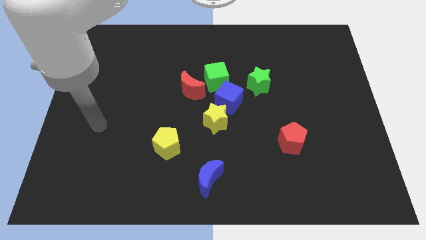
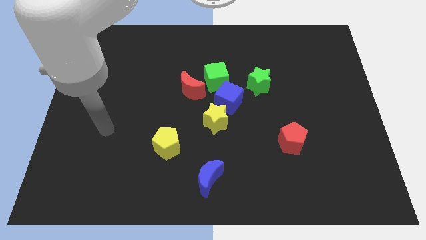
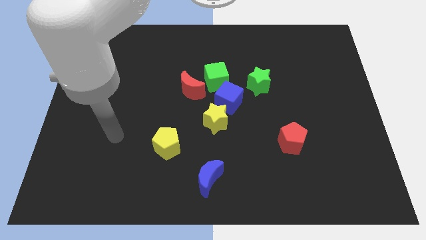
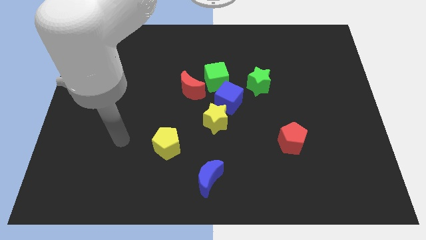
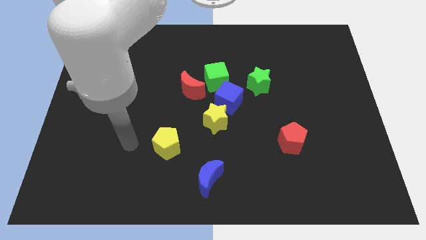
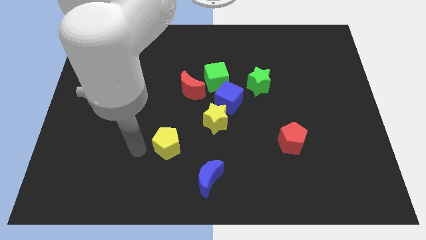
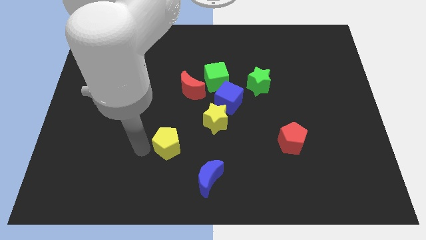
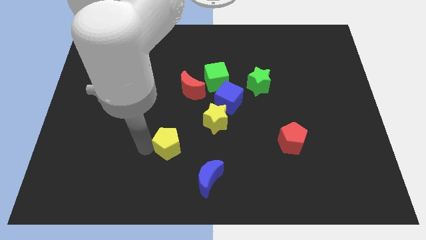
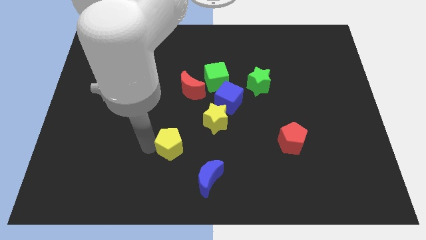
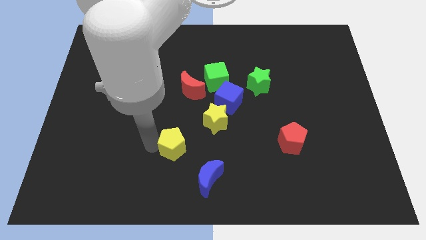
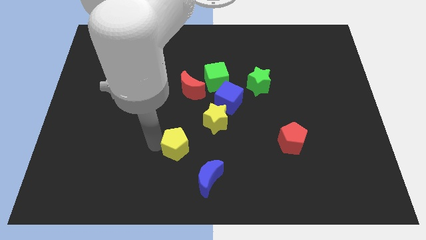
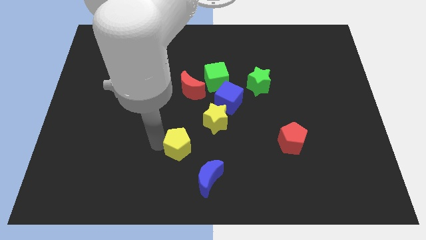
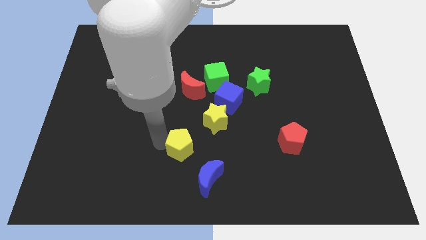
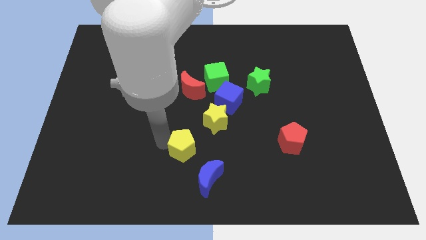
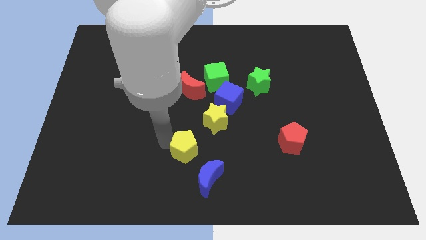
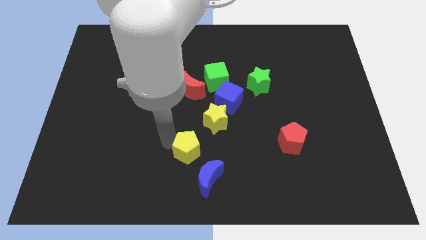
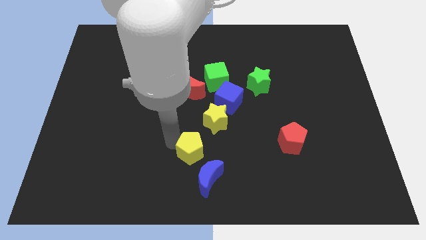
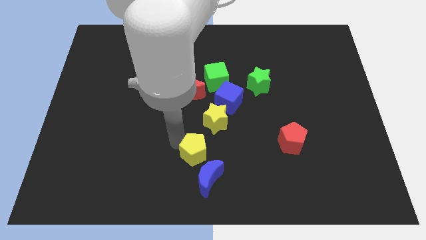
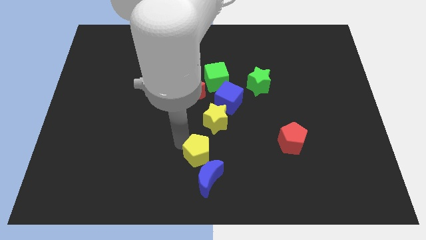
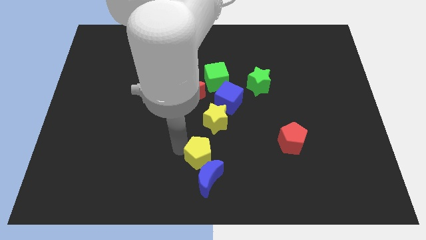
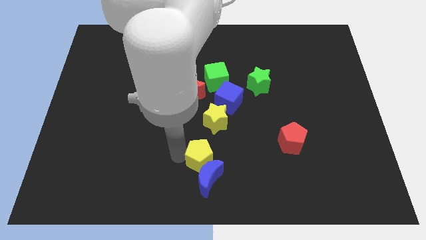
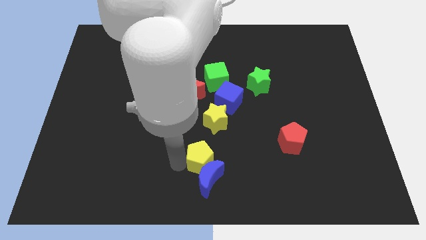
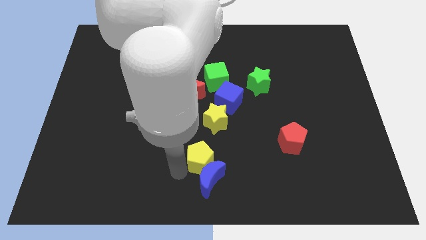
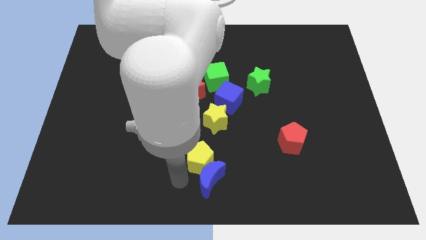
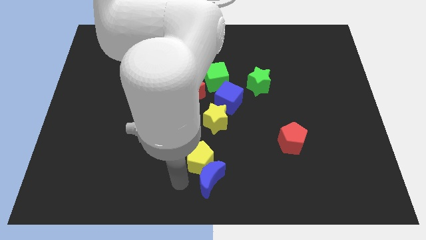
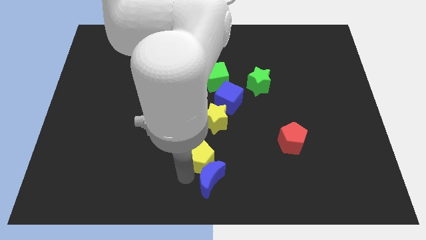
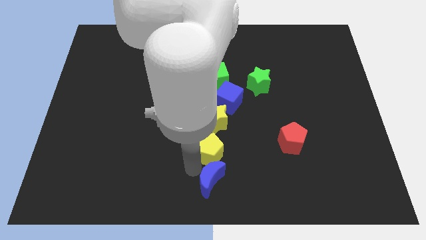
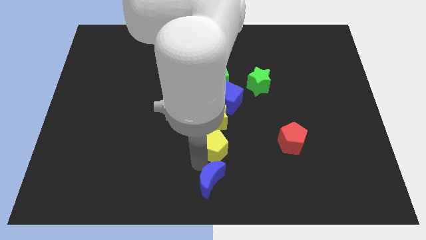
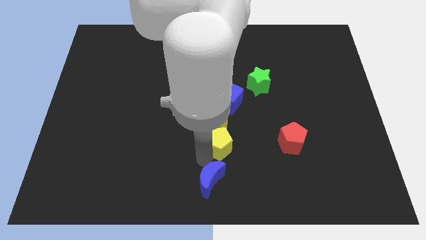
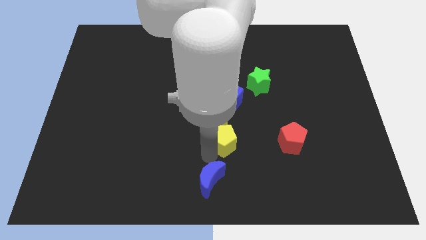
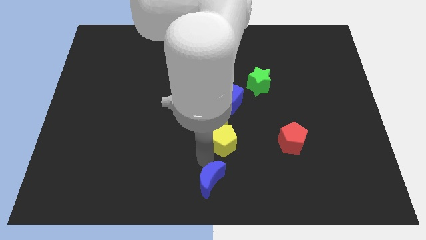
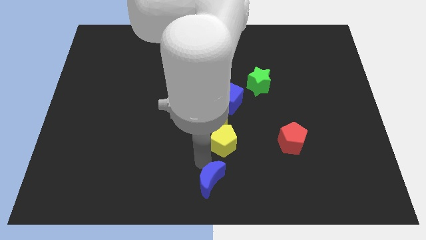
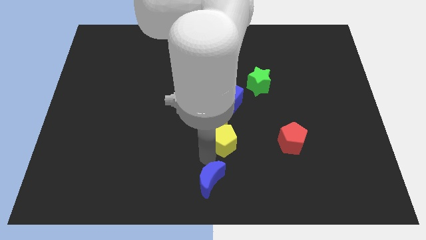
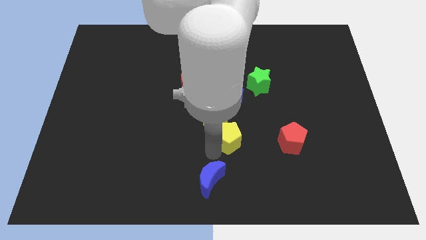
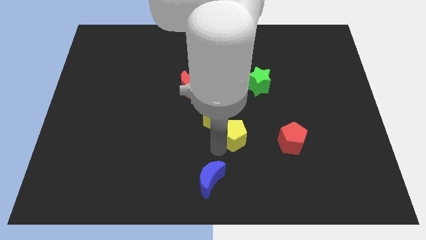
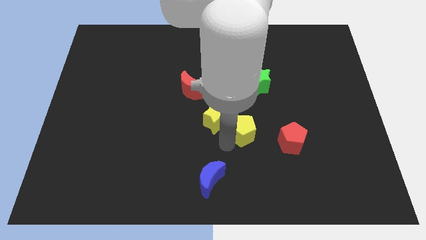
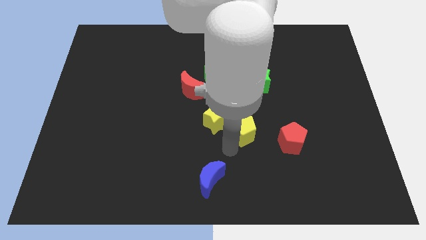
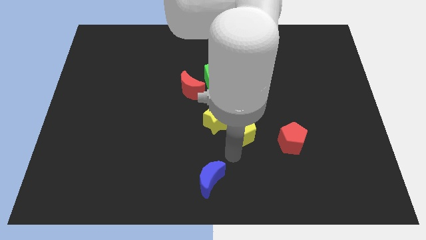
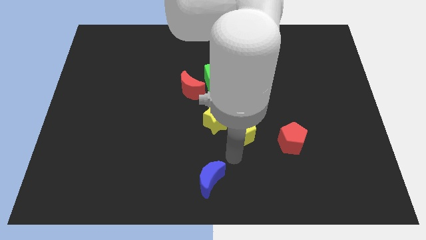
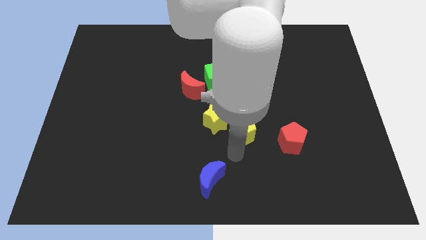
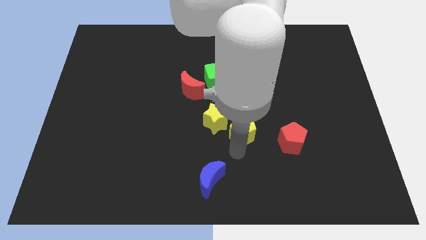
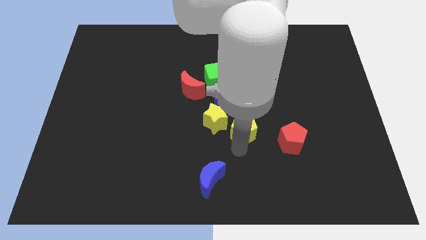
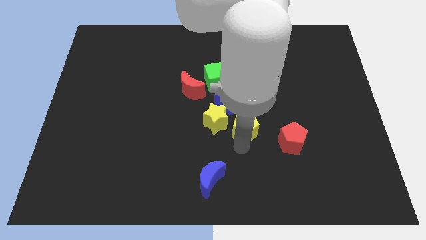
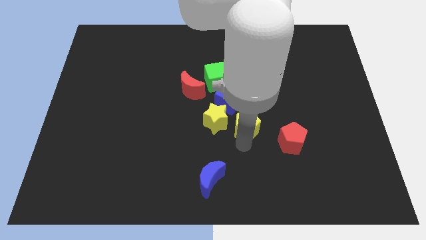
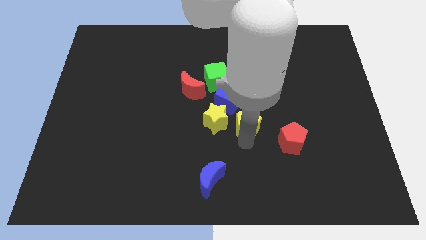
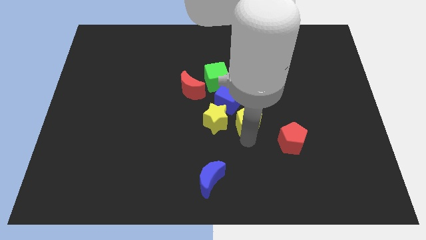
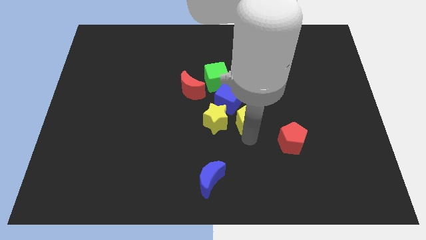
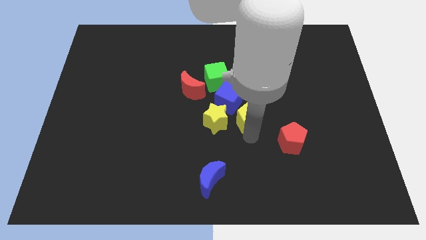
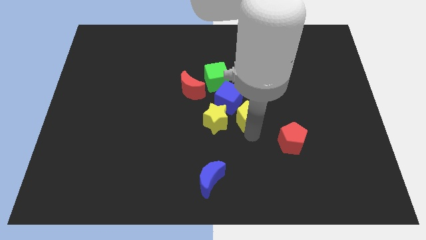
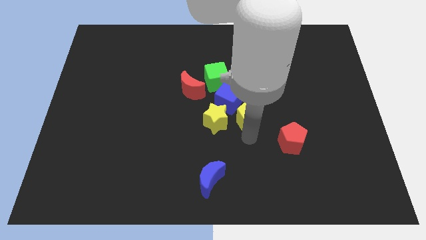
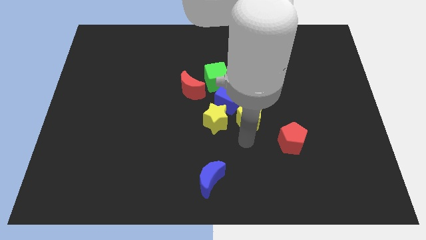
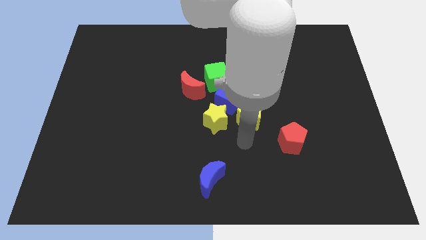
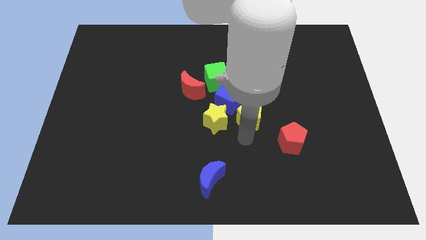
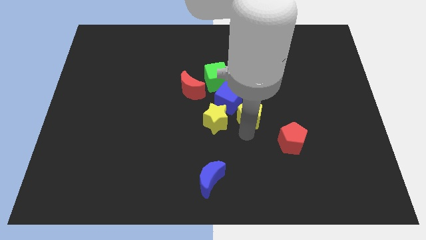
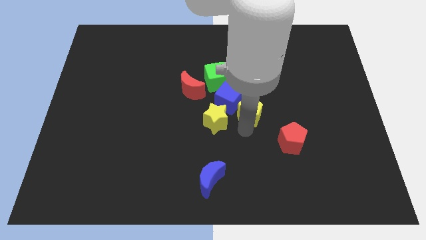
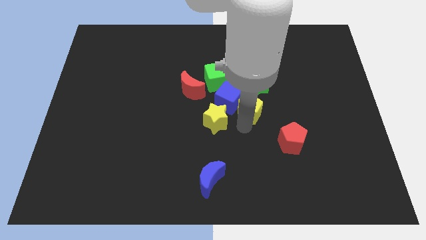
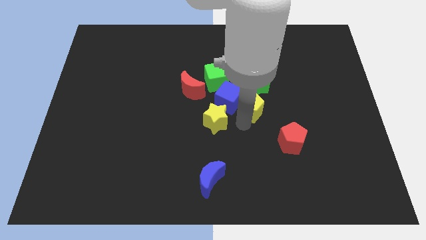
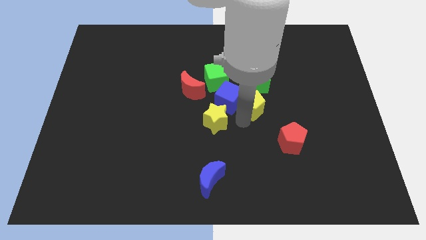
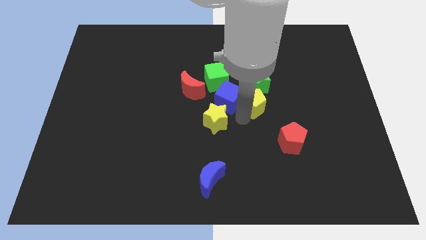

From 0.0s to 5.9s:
push the yellow pentagon diagonally upwards and to the right

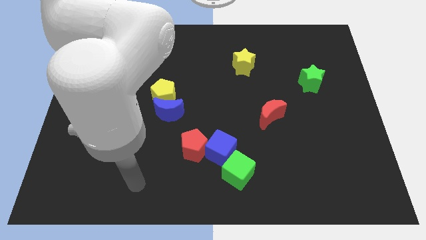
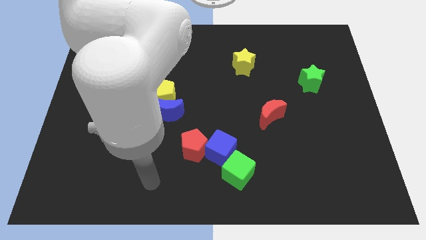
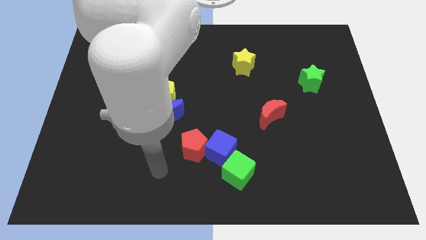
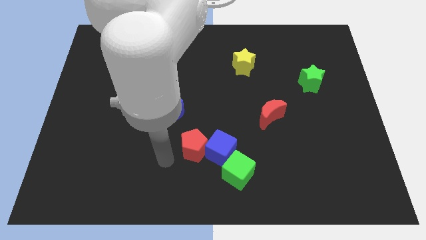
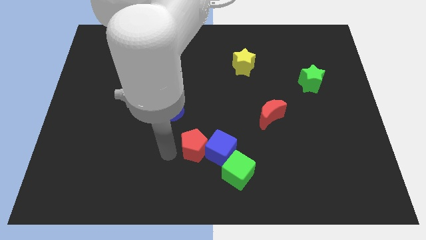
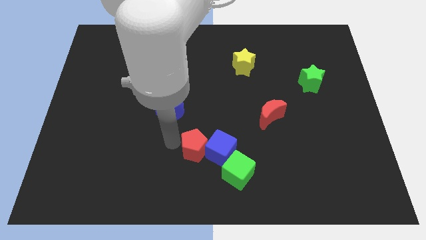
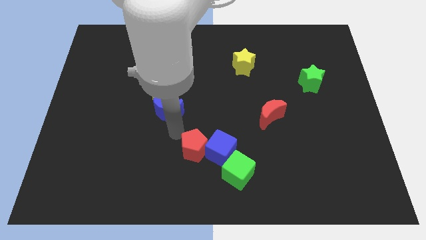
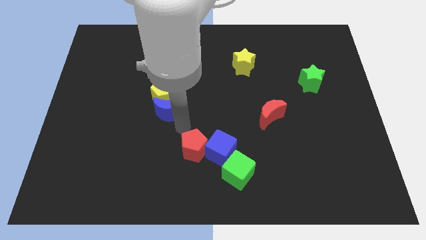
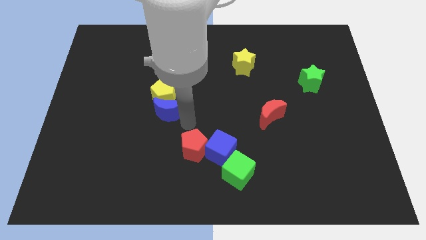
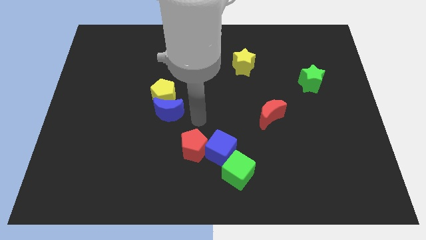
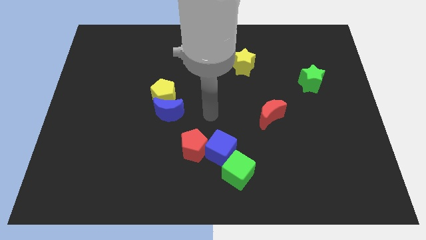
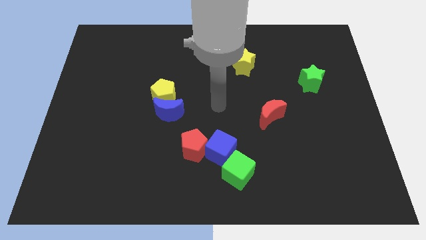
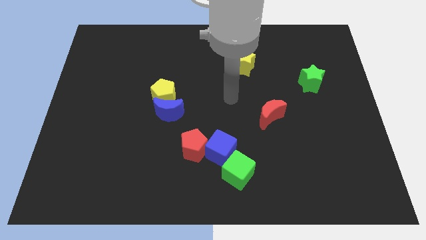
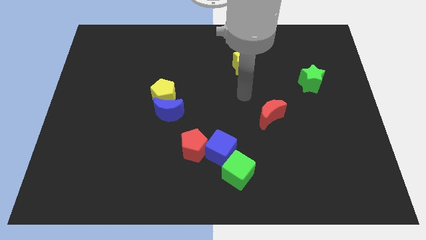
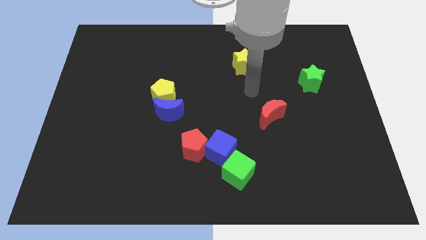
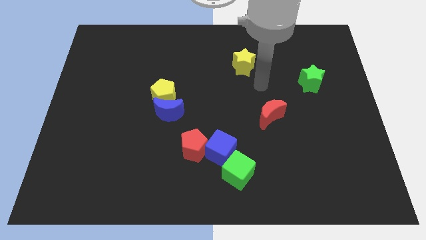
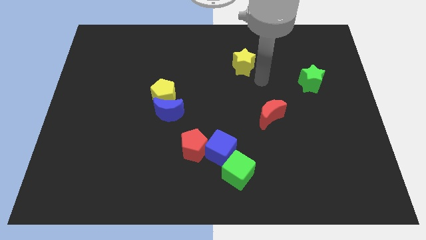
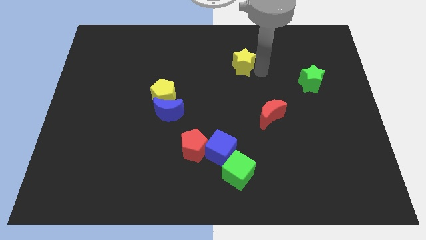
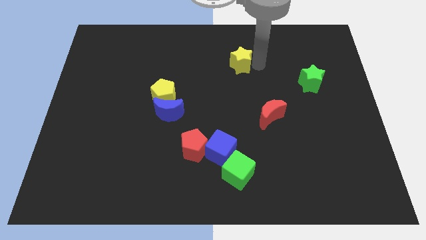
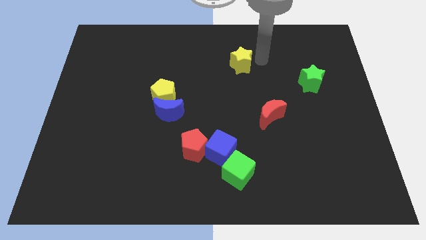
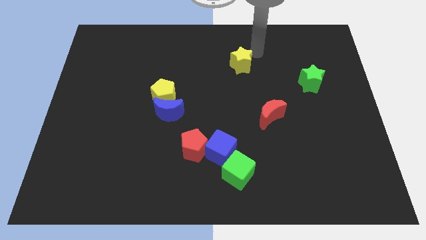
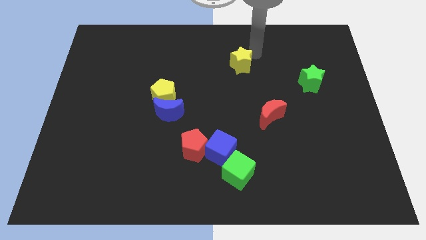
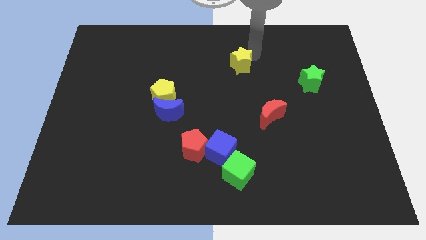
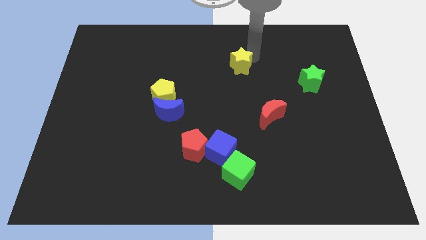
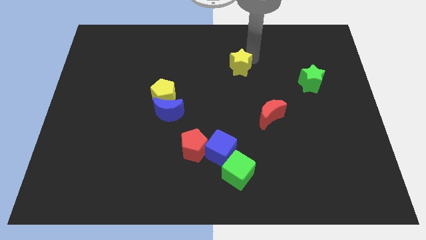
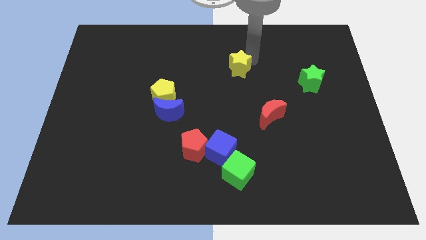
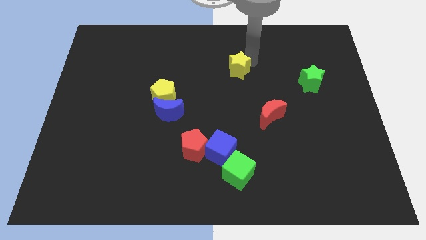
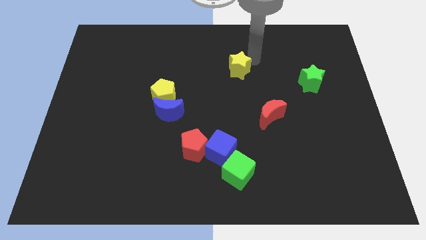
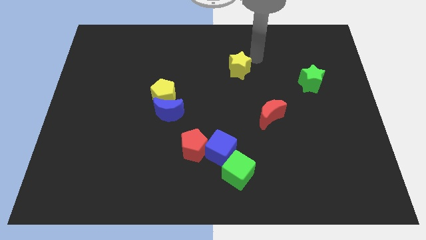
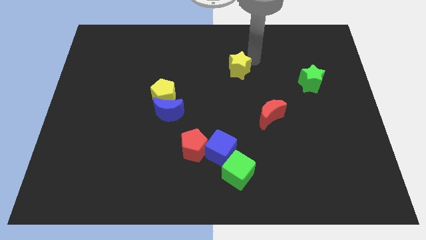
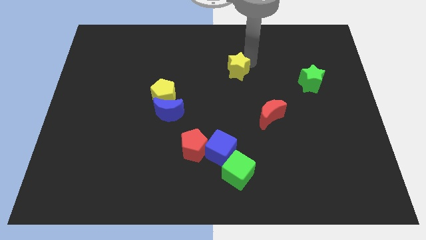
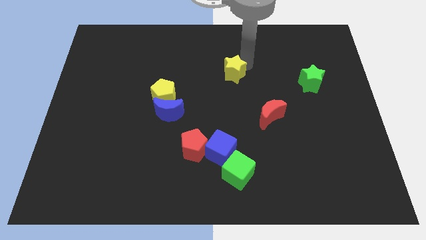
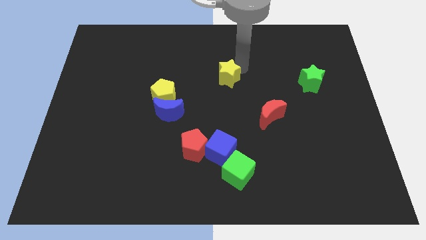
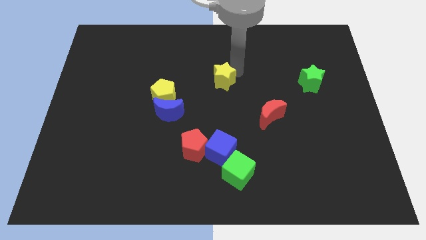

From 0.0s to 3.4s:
move the yellow star a bit down and then left
